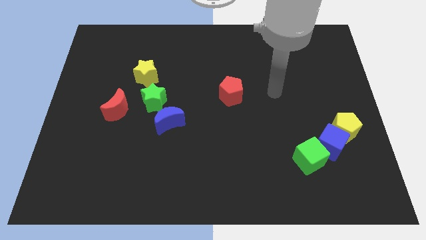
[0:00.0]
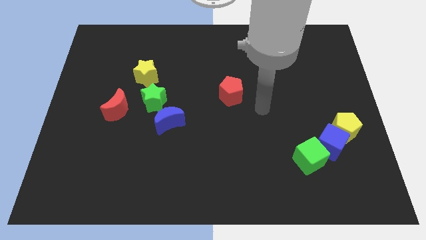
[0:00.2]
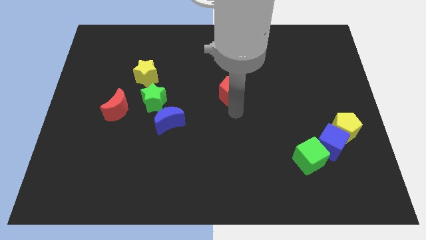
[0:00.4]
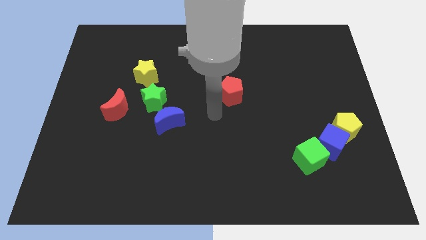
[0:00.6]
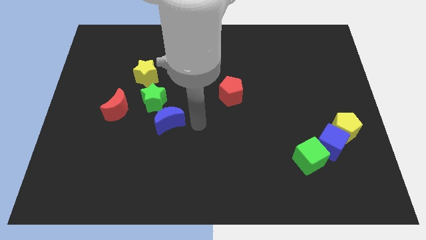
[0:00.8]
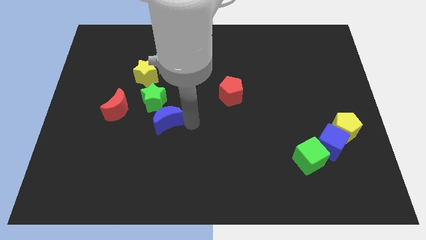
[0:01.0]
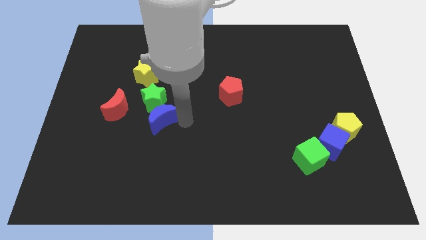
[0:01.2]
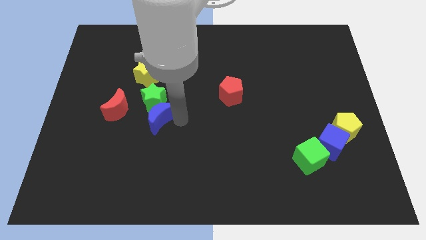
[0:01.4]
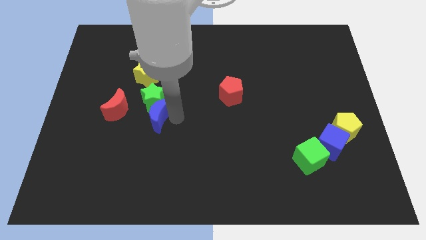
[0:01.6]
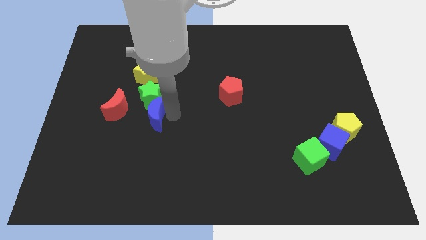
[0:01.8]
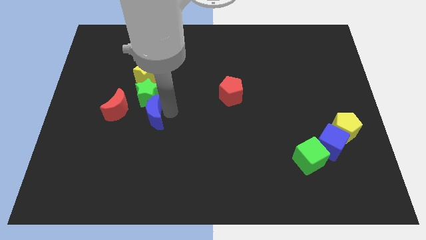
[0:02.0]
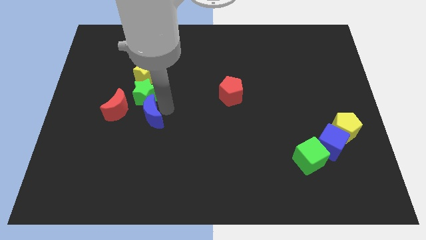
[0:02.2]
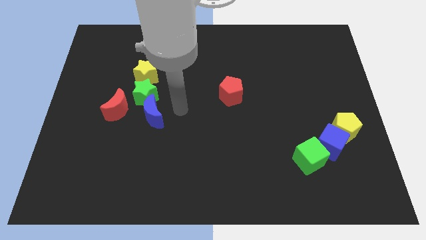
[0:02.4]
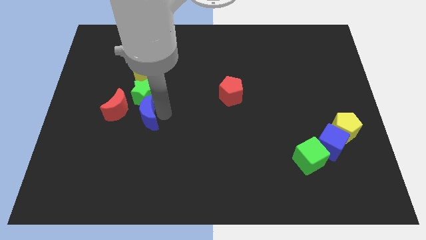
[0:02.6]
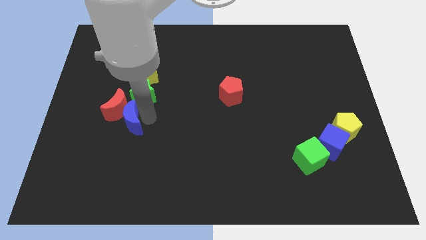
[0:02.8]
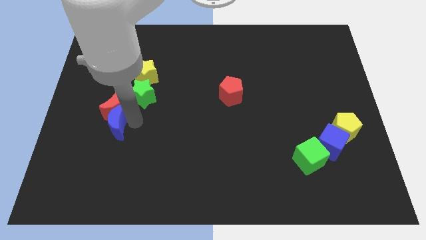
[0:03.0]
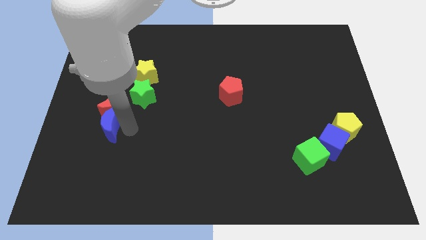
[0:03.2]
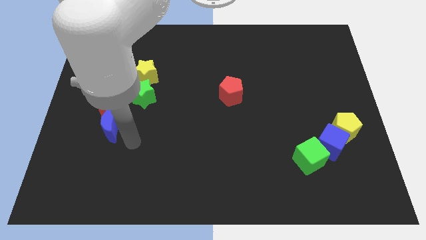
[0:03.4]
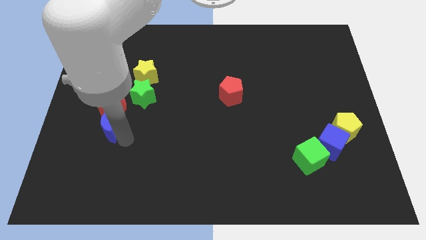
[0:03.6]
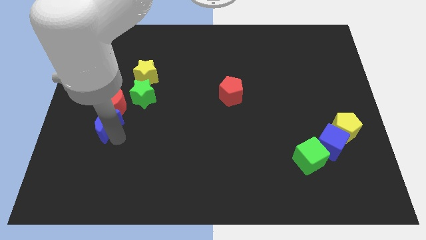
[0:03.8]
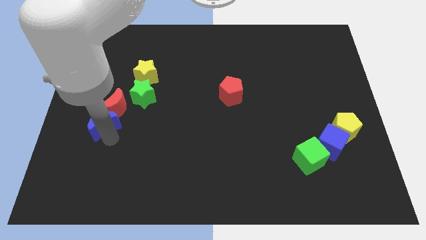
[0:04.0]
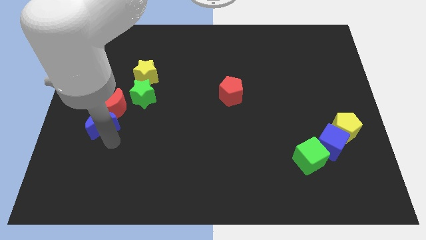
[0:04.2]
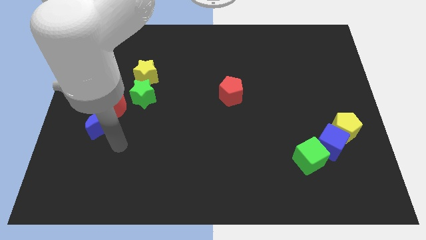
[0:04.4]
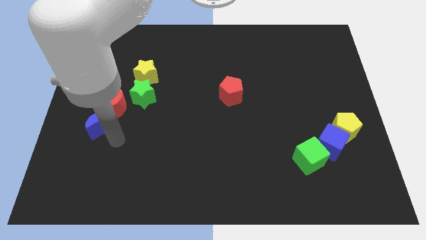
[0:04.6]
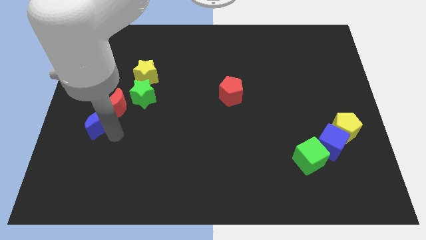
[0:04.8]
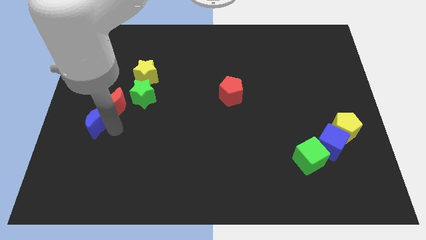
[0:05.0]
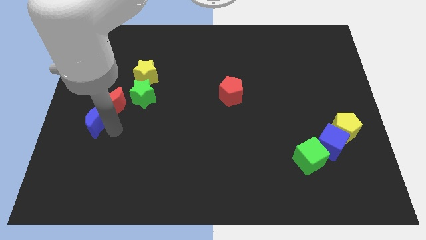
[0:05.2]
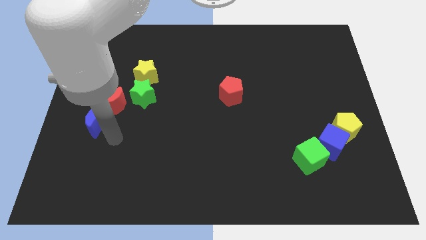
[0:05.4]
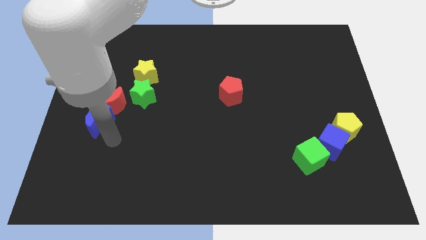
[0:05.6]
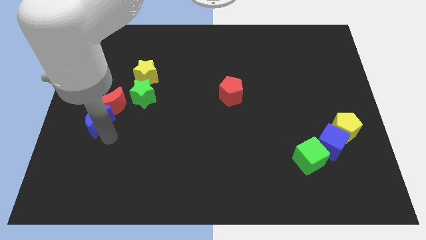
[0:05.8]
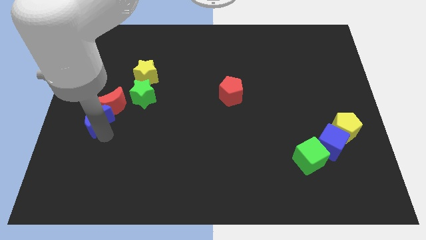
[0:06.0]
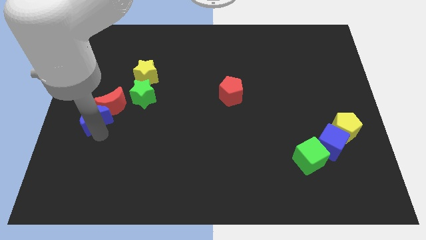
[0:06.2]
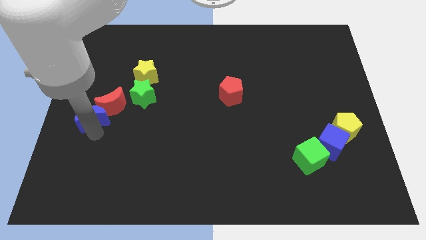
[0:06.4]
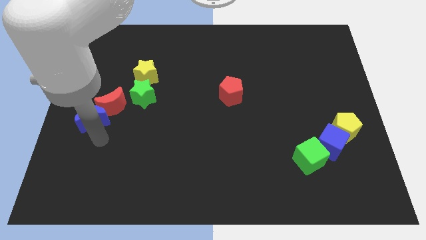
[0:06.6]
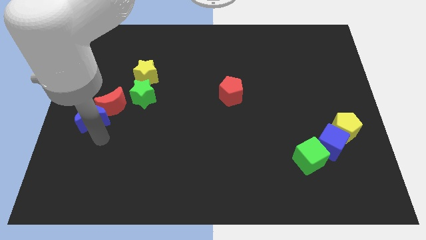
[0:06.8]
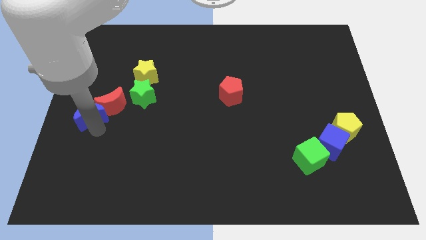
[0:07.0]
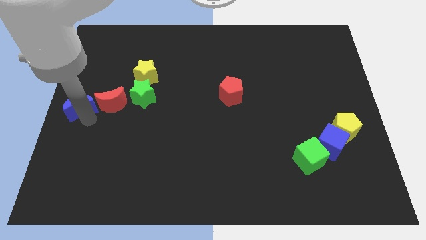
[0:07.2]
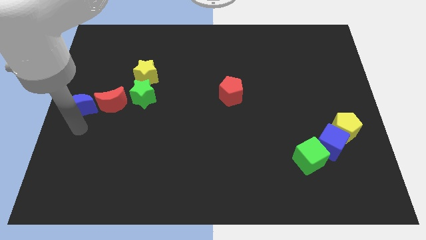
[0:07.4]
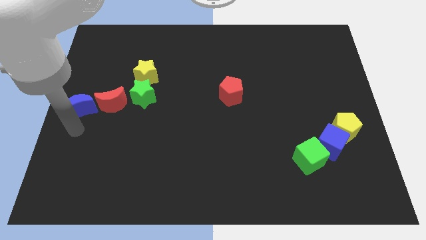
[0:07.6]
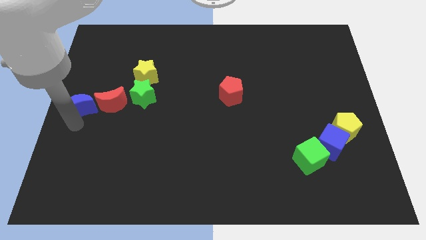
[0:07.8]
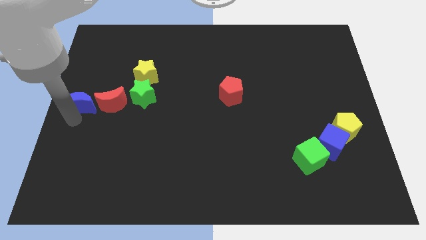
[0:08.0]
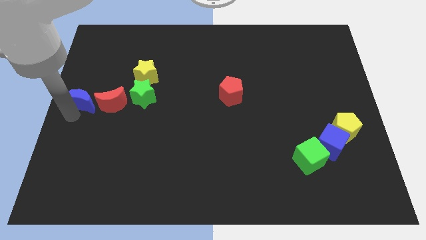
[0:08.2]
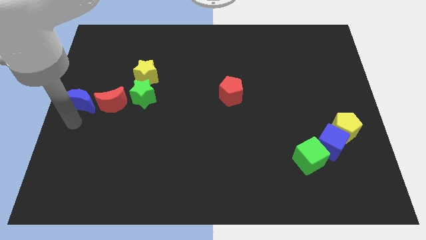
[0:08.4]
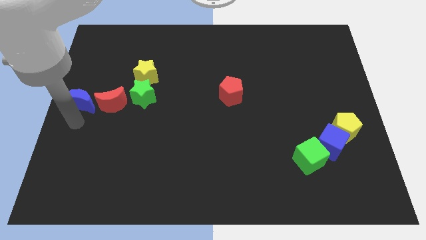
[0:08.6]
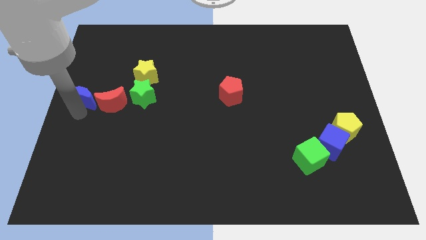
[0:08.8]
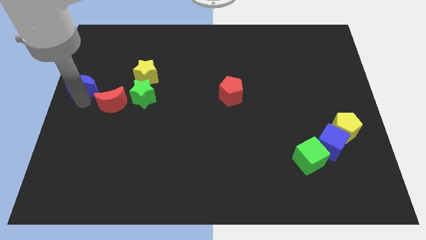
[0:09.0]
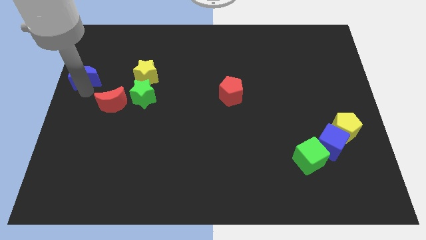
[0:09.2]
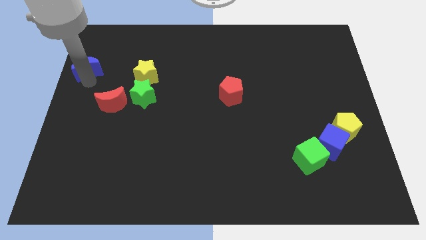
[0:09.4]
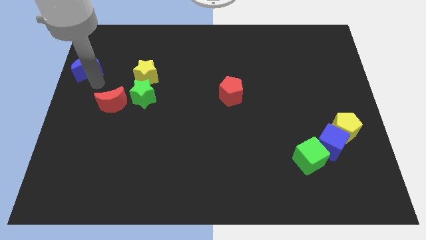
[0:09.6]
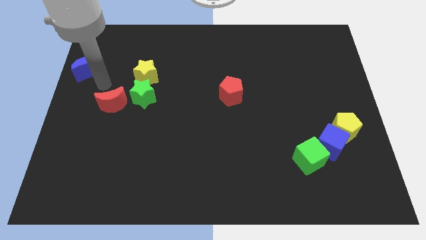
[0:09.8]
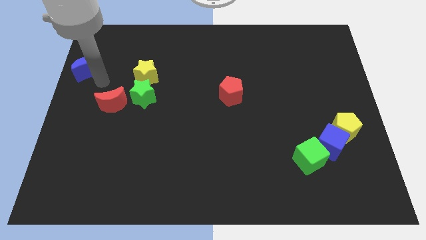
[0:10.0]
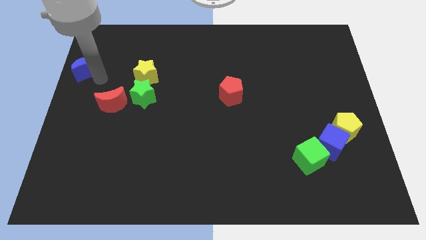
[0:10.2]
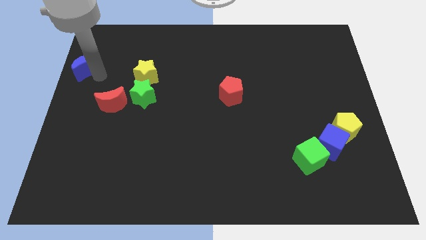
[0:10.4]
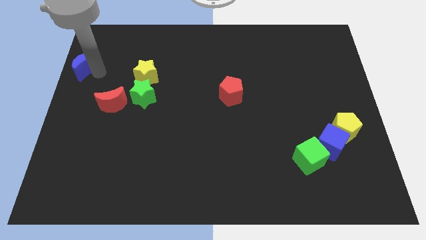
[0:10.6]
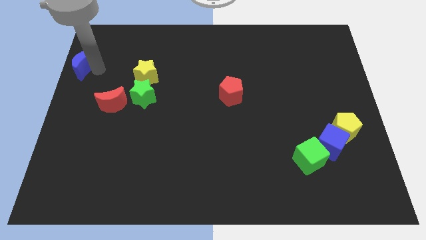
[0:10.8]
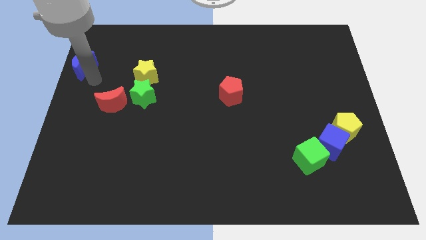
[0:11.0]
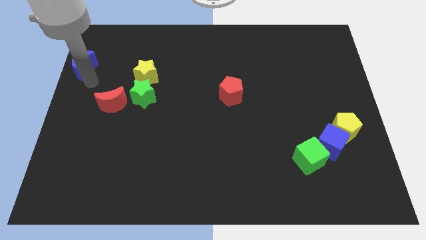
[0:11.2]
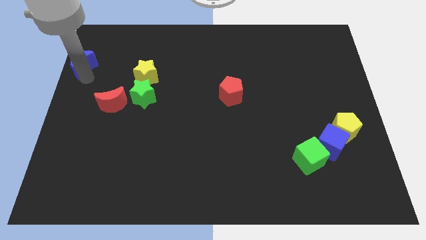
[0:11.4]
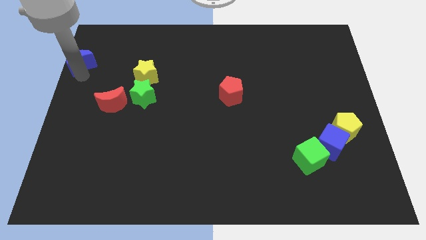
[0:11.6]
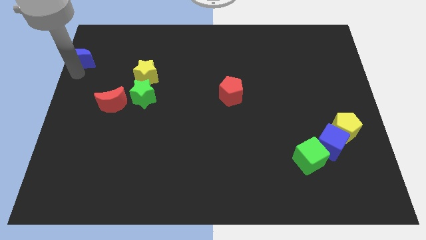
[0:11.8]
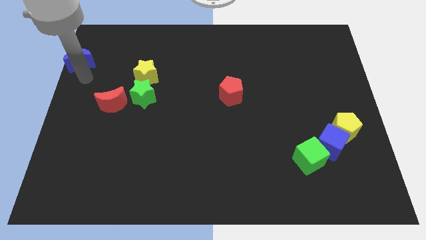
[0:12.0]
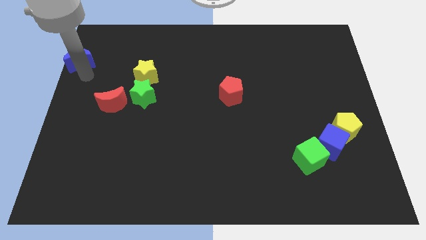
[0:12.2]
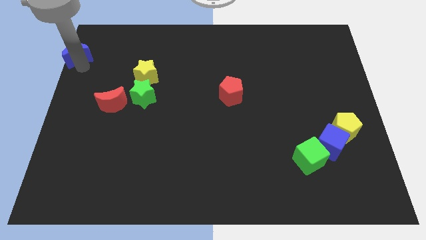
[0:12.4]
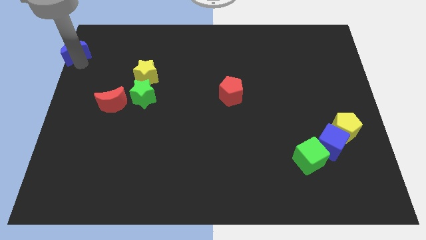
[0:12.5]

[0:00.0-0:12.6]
push the blue moon to the top left of the board
